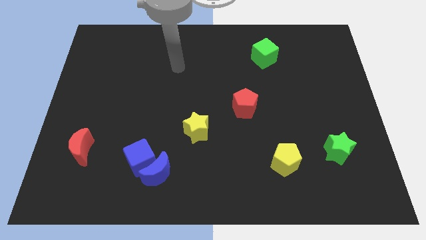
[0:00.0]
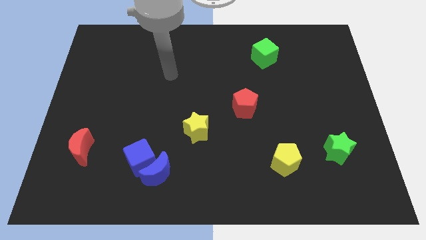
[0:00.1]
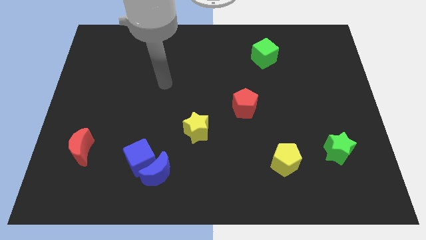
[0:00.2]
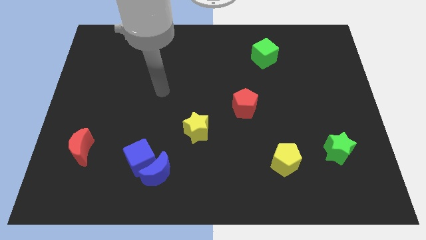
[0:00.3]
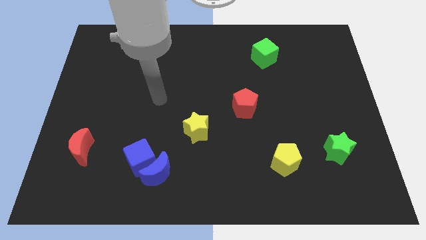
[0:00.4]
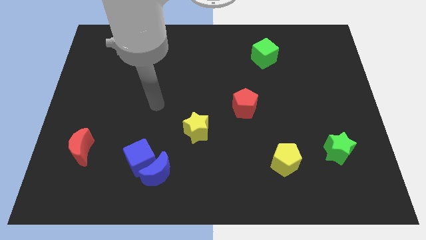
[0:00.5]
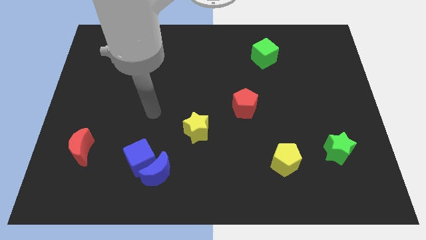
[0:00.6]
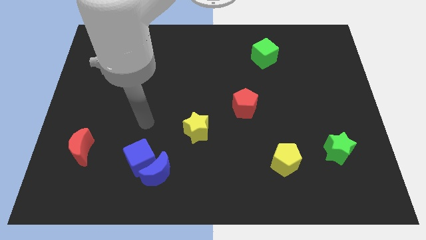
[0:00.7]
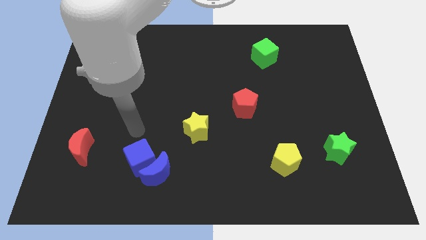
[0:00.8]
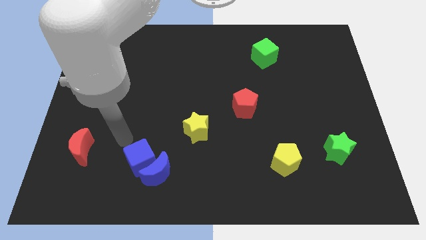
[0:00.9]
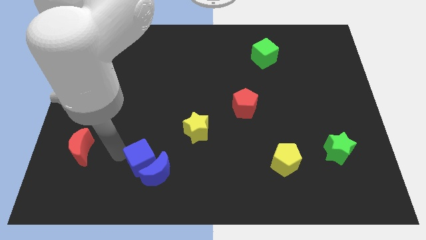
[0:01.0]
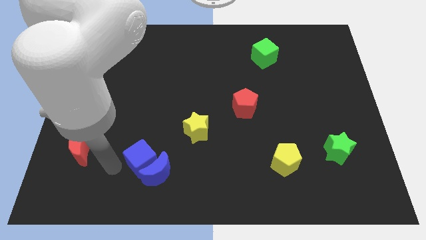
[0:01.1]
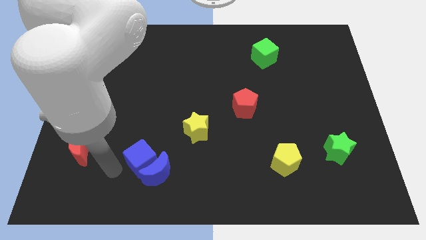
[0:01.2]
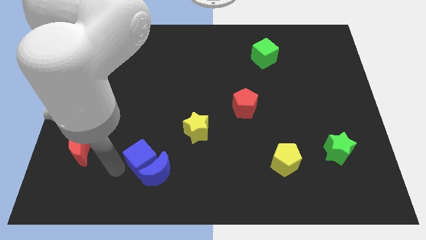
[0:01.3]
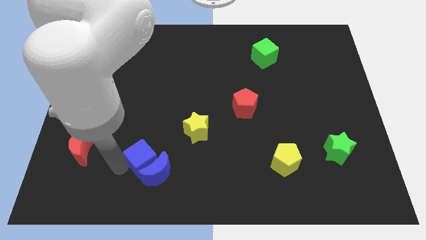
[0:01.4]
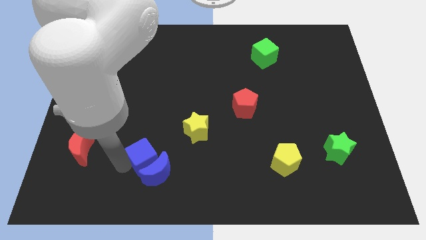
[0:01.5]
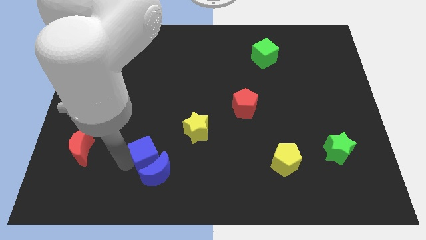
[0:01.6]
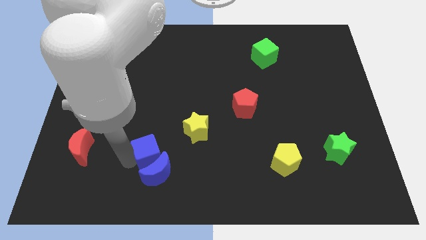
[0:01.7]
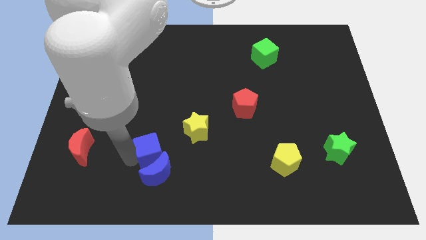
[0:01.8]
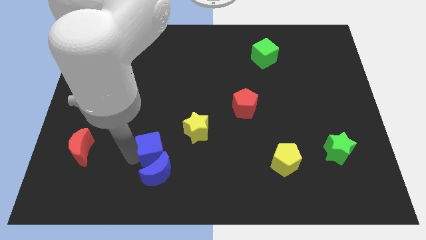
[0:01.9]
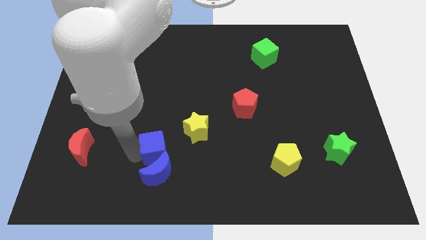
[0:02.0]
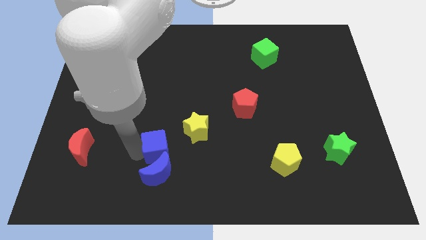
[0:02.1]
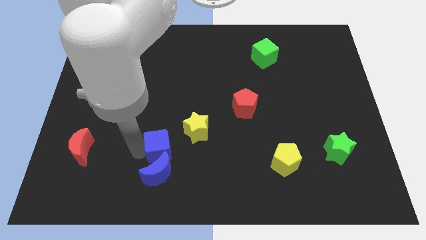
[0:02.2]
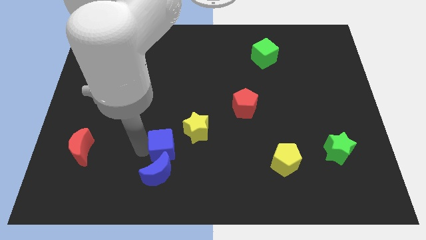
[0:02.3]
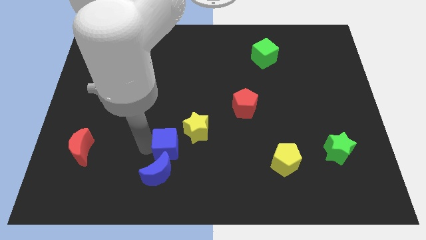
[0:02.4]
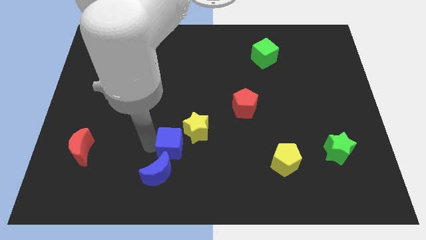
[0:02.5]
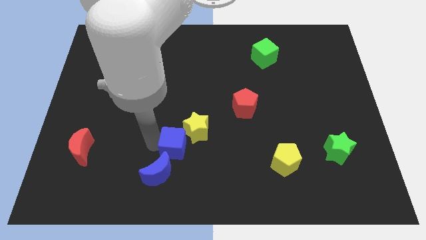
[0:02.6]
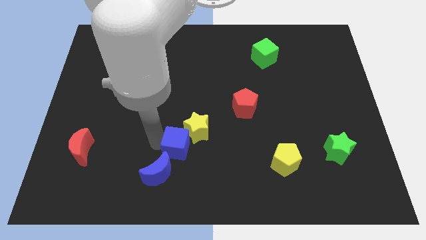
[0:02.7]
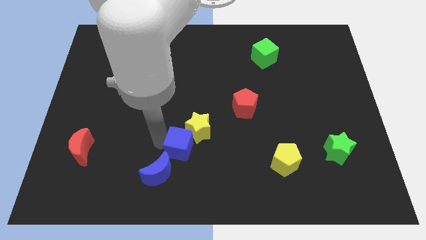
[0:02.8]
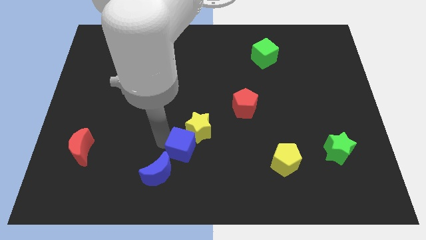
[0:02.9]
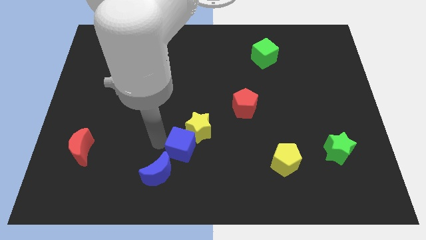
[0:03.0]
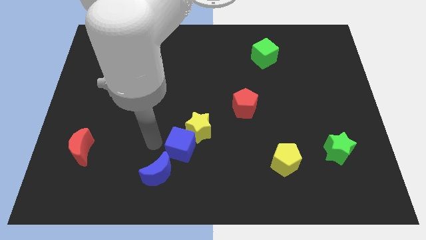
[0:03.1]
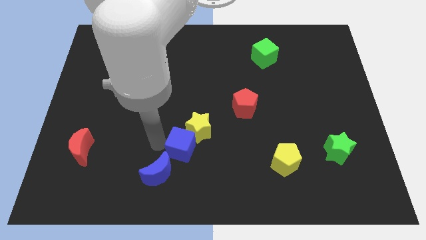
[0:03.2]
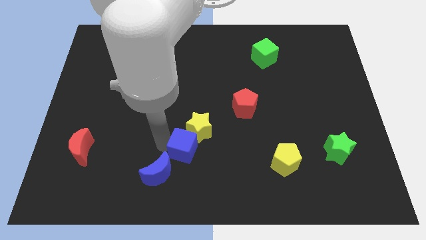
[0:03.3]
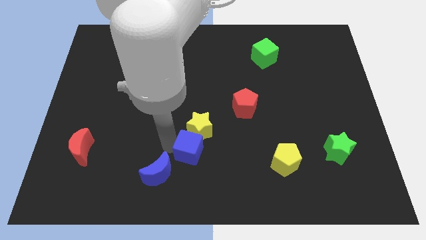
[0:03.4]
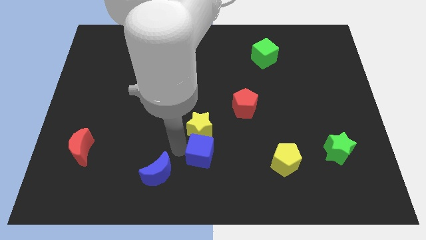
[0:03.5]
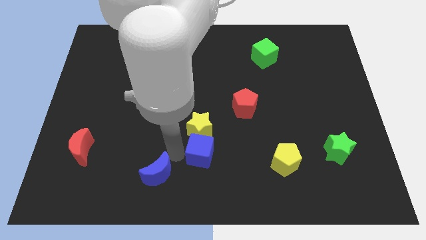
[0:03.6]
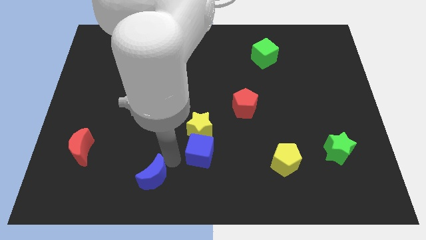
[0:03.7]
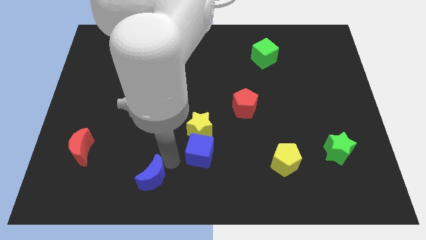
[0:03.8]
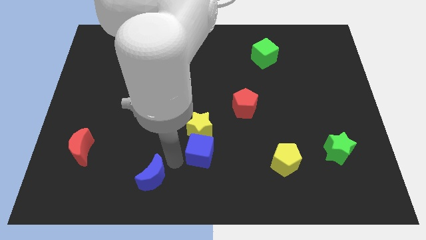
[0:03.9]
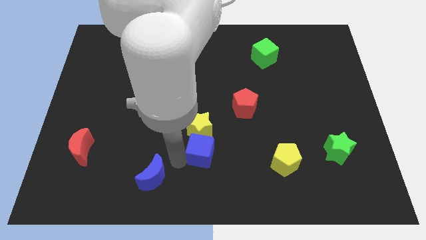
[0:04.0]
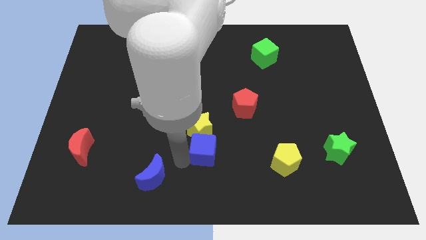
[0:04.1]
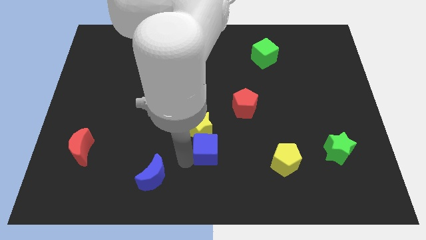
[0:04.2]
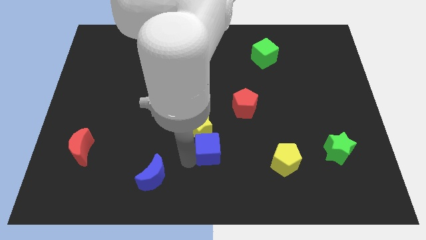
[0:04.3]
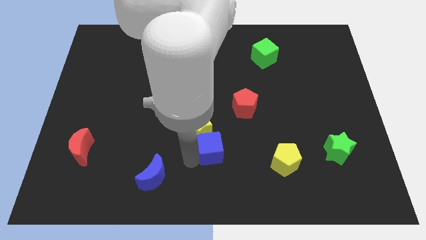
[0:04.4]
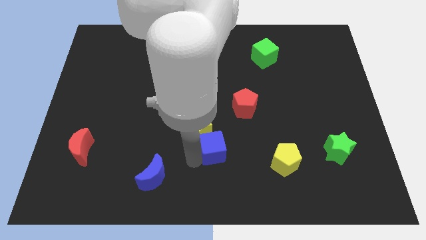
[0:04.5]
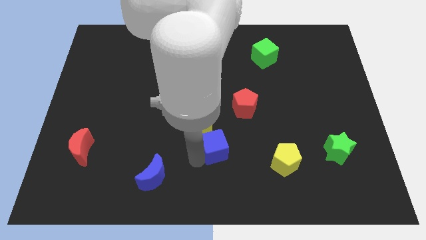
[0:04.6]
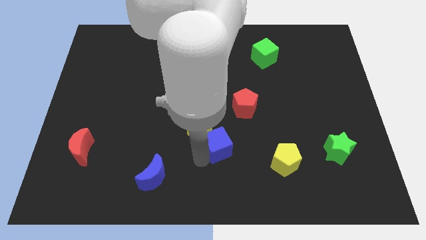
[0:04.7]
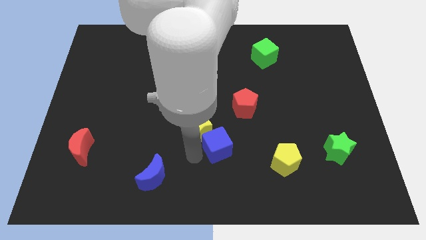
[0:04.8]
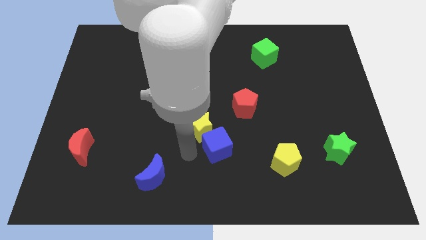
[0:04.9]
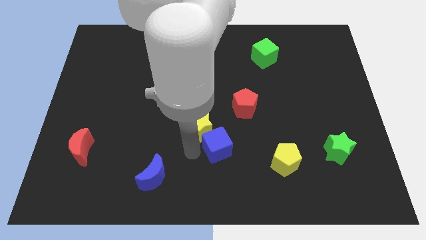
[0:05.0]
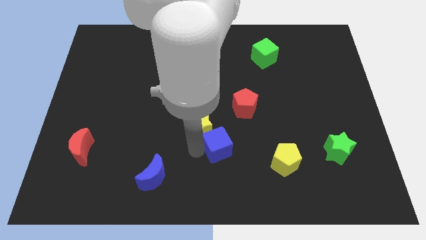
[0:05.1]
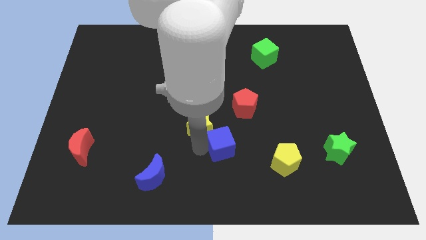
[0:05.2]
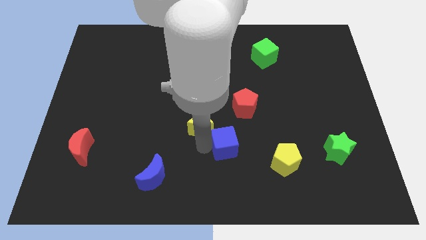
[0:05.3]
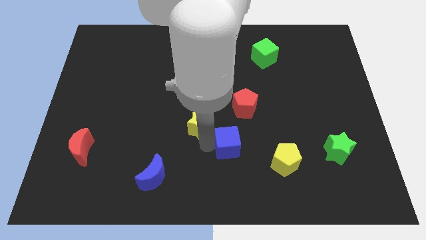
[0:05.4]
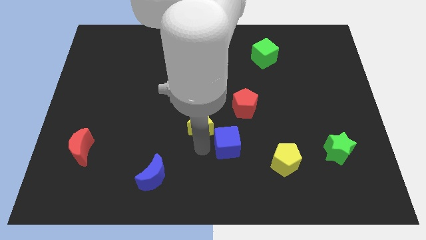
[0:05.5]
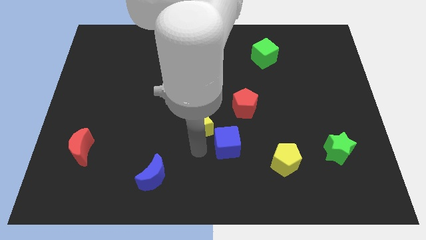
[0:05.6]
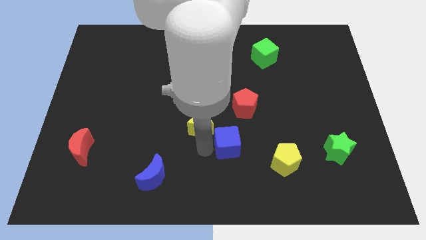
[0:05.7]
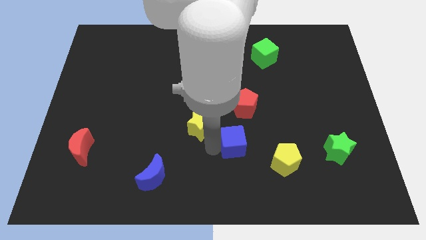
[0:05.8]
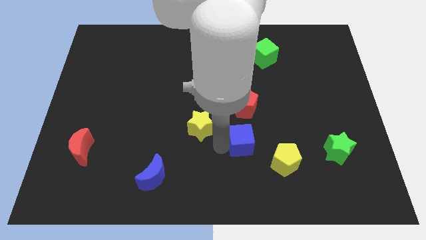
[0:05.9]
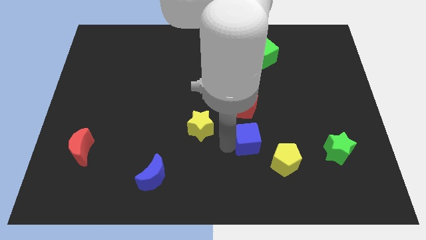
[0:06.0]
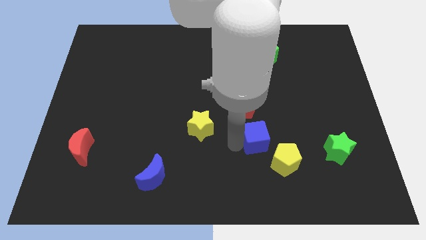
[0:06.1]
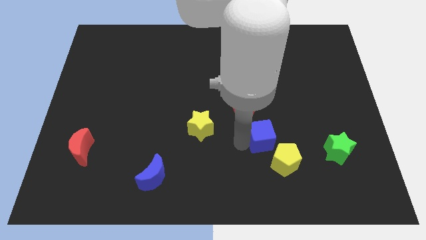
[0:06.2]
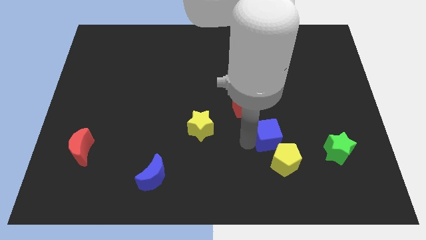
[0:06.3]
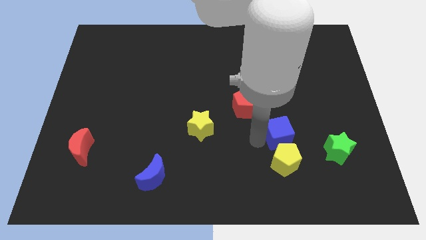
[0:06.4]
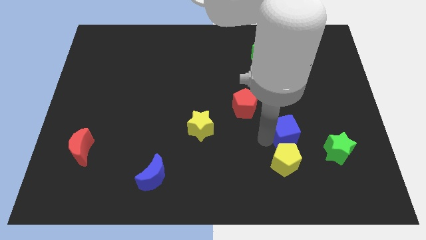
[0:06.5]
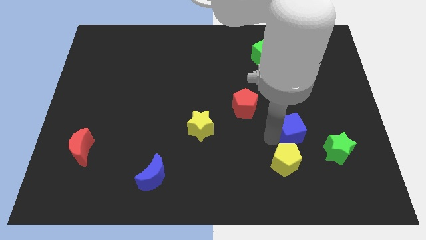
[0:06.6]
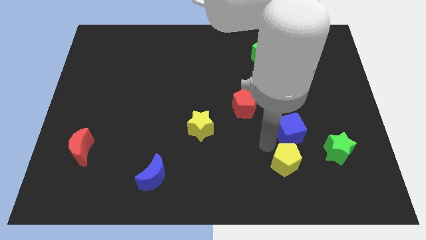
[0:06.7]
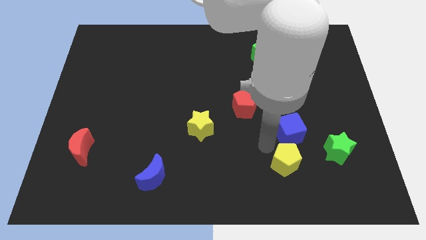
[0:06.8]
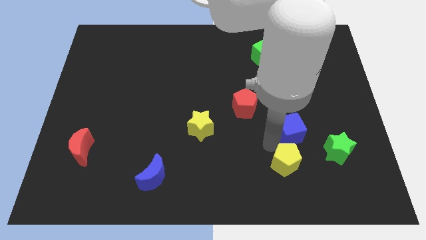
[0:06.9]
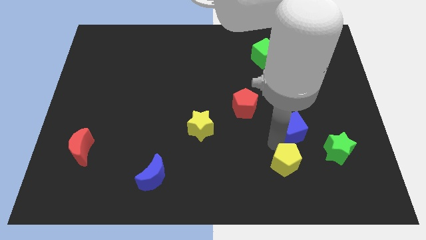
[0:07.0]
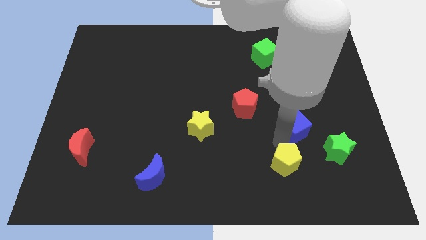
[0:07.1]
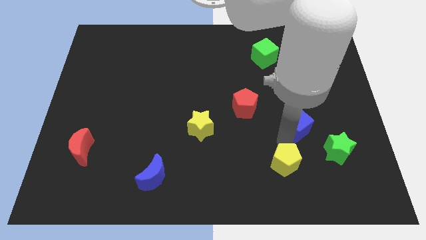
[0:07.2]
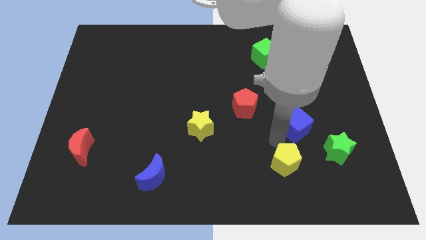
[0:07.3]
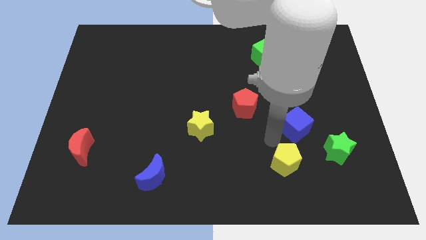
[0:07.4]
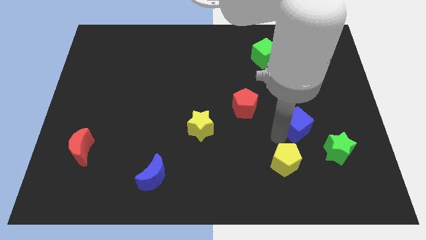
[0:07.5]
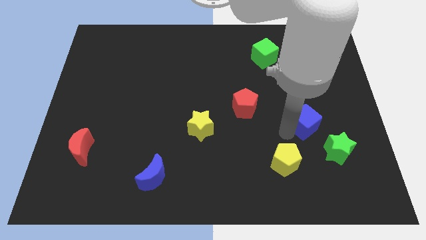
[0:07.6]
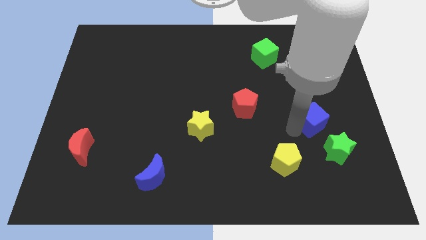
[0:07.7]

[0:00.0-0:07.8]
slide the blue cube to the top of the green star
